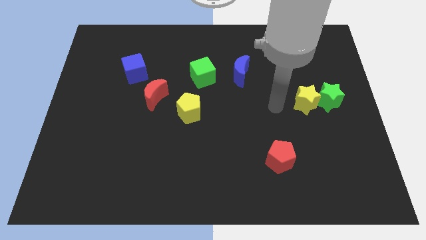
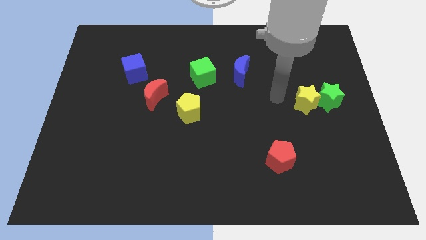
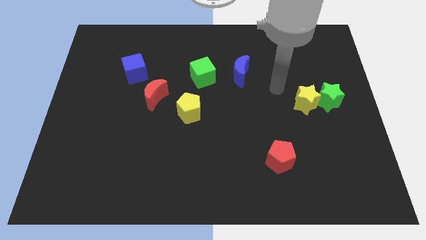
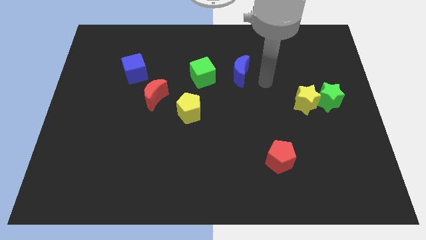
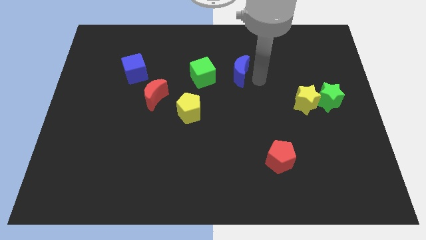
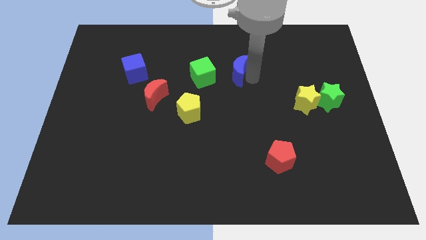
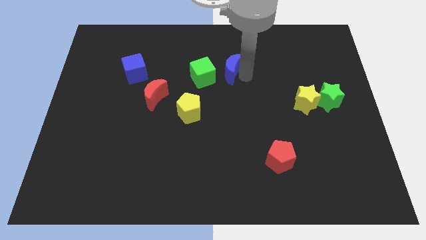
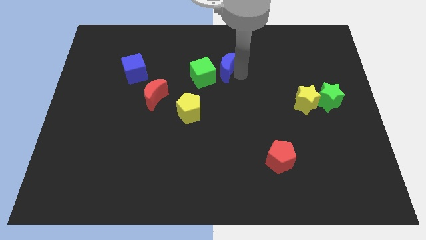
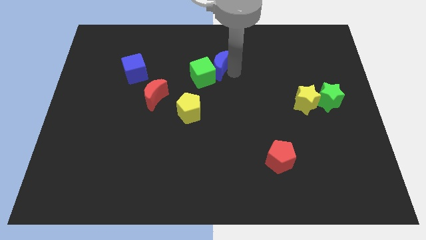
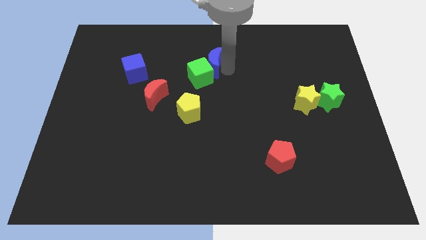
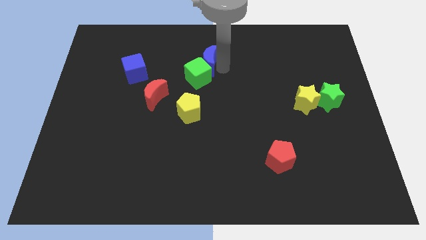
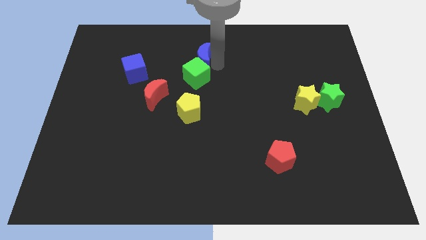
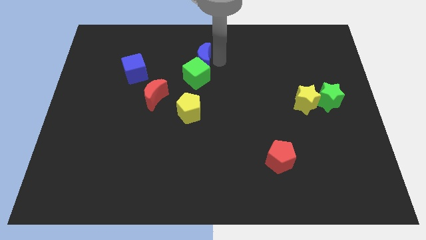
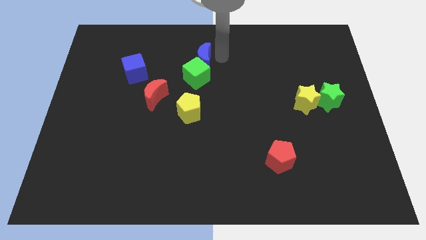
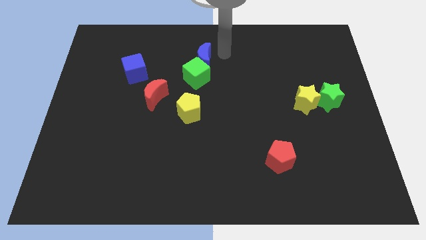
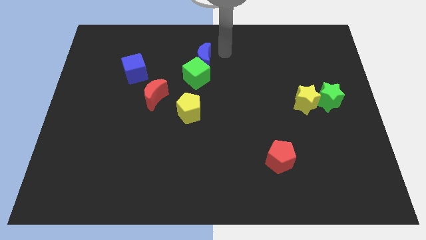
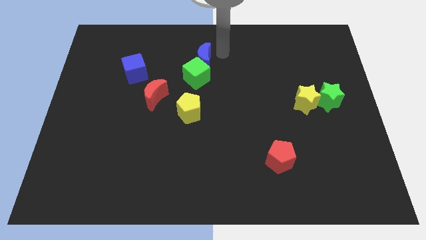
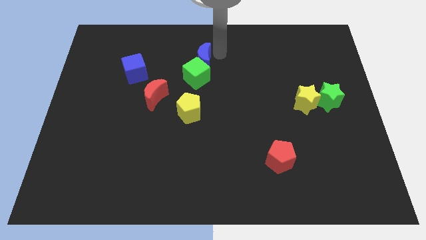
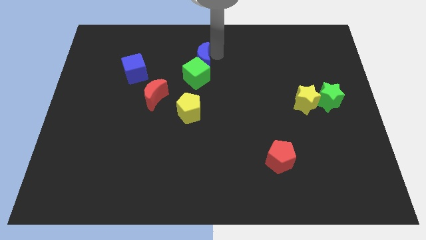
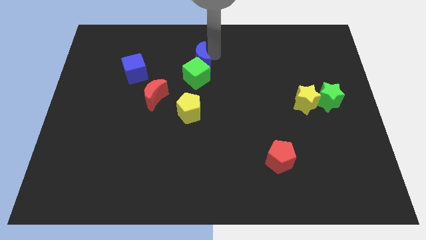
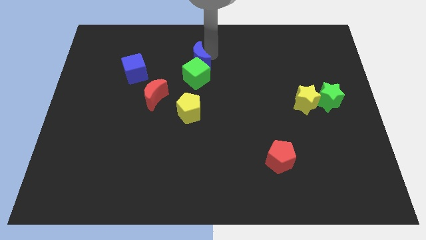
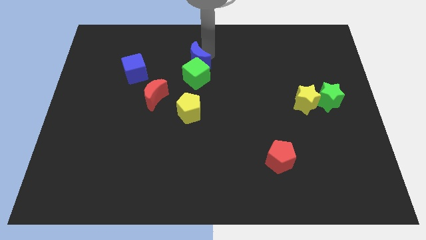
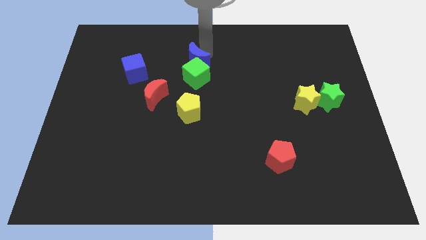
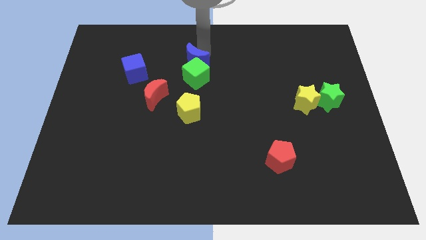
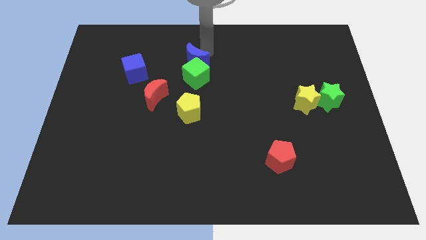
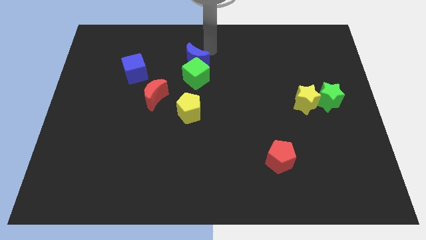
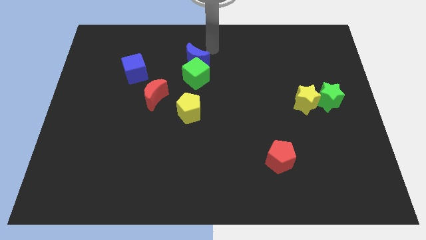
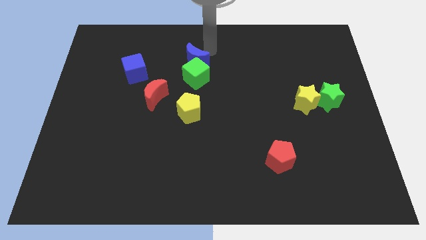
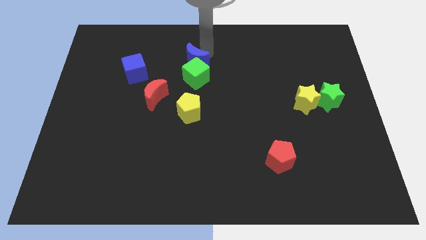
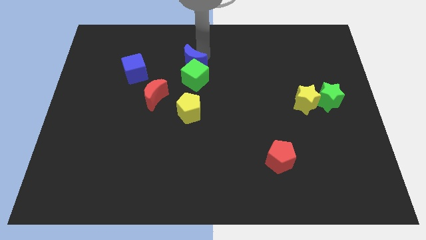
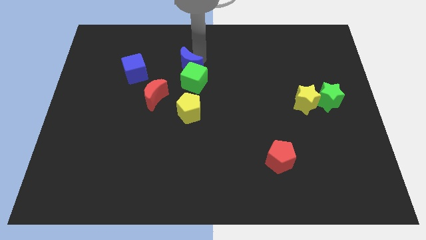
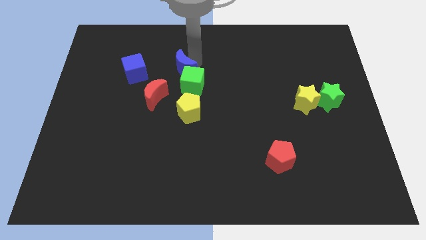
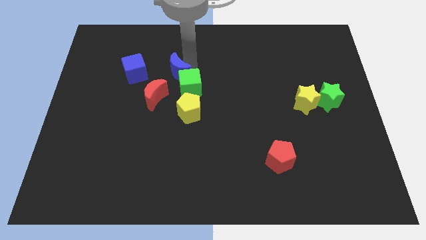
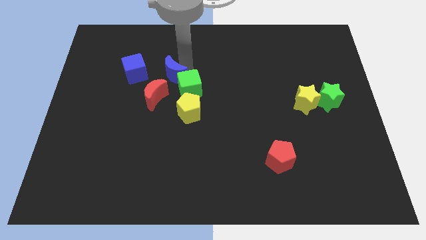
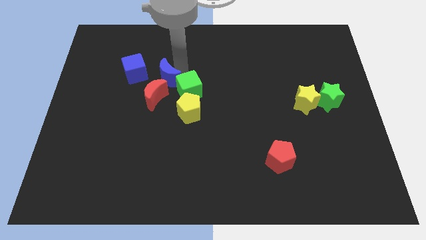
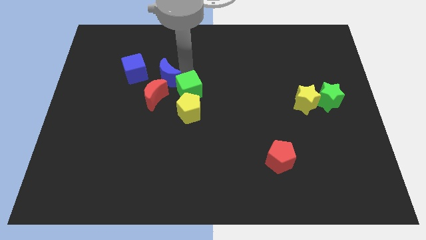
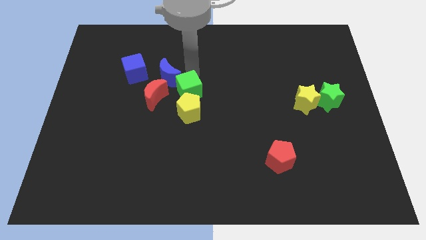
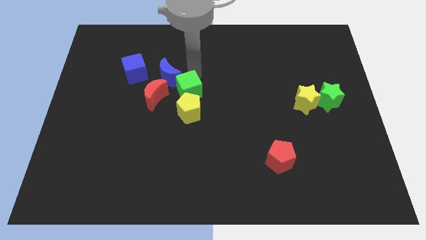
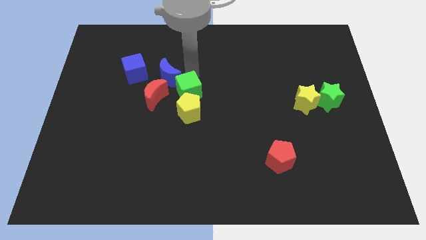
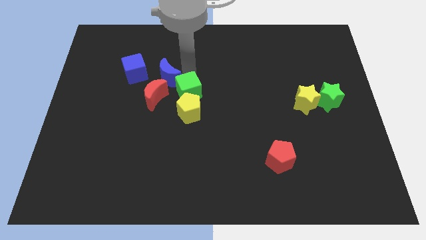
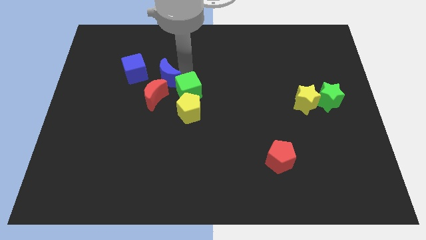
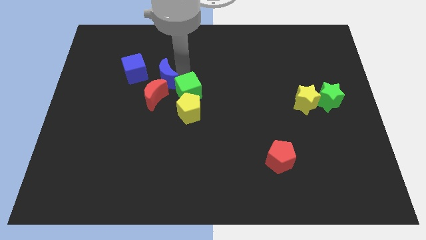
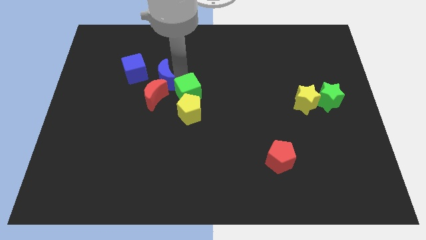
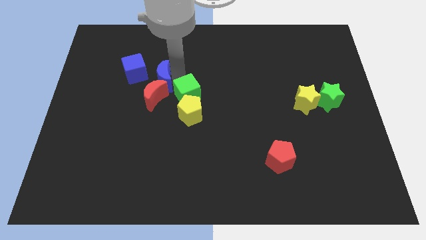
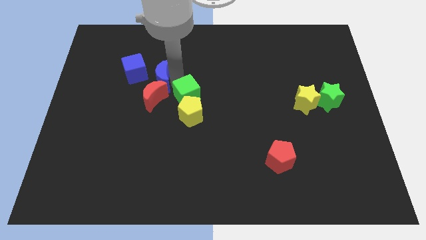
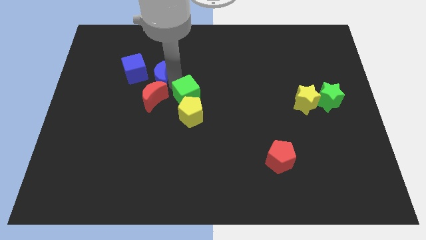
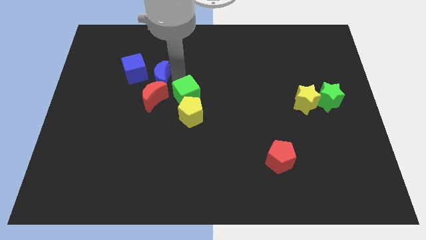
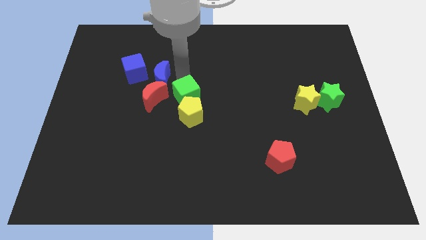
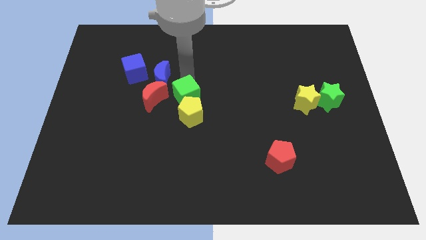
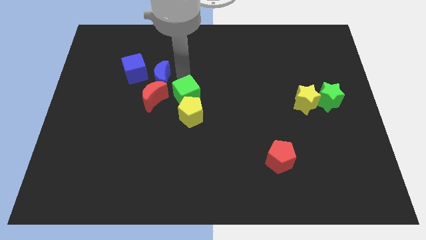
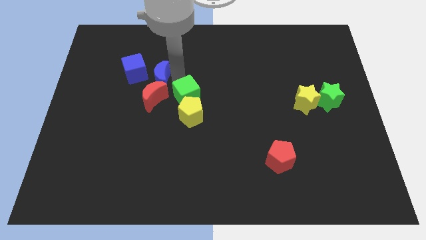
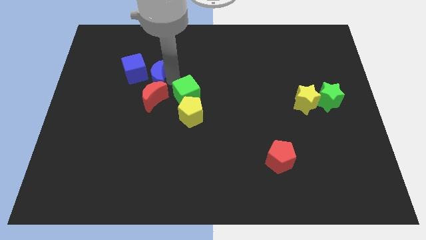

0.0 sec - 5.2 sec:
move the blue moon to the left

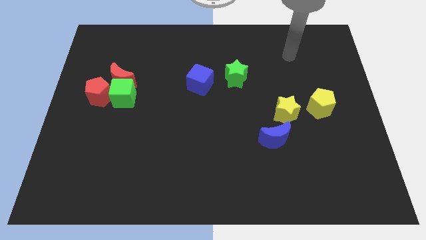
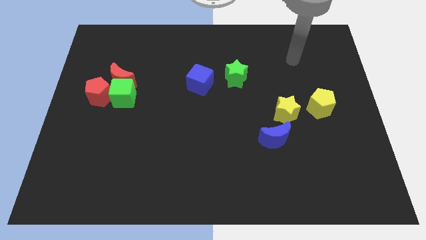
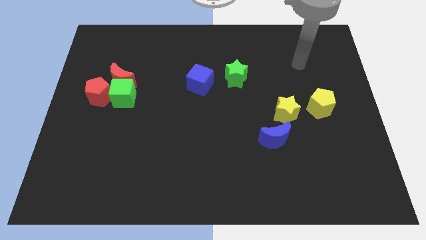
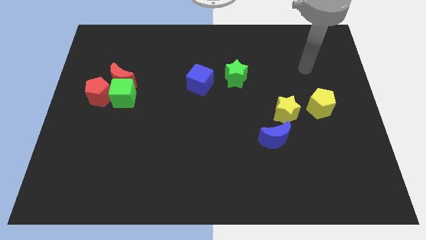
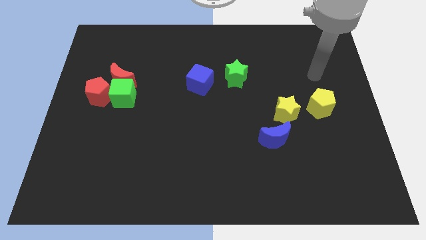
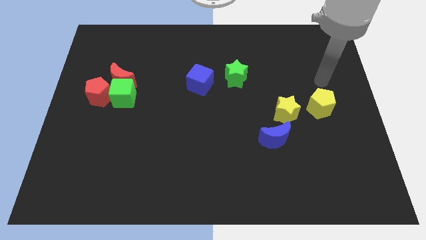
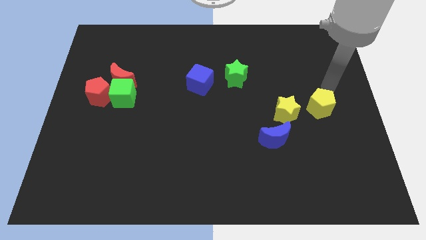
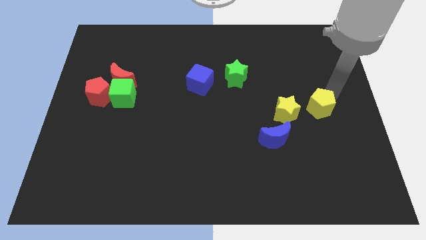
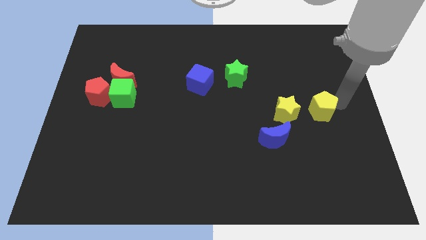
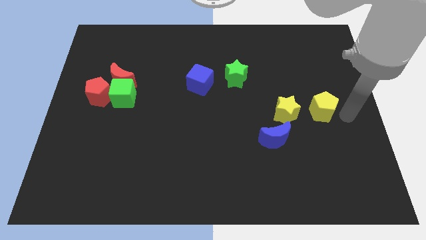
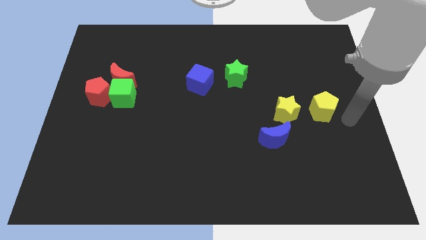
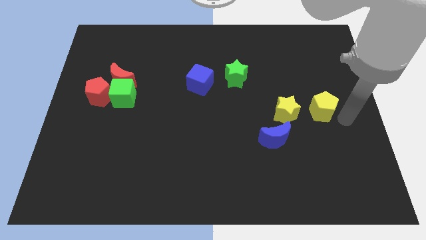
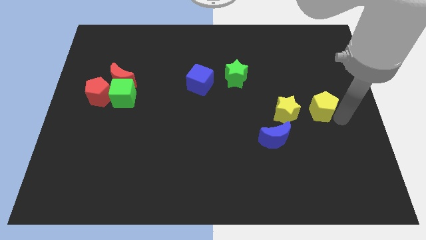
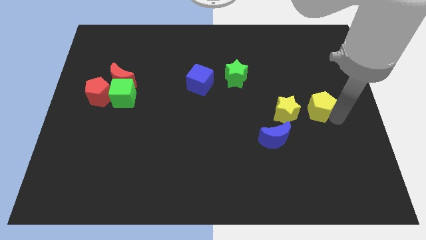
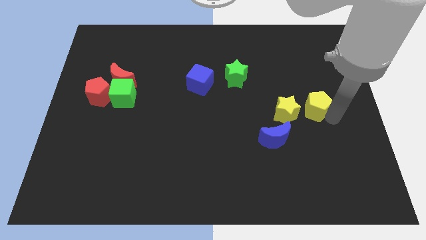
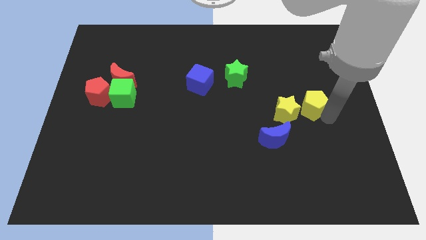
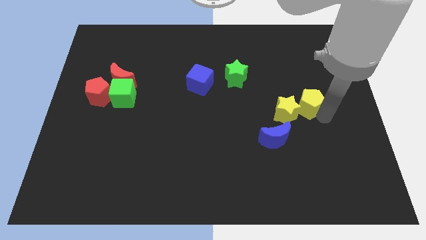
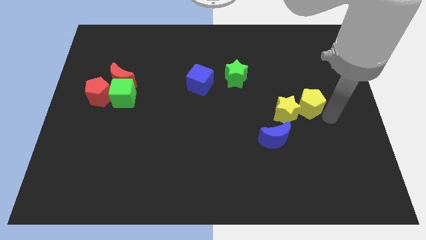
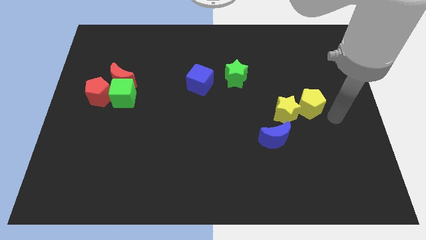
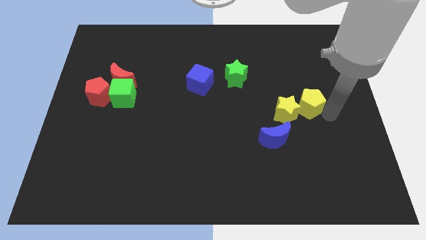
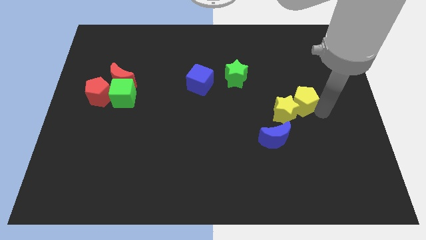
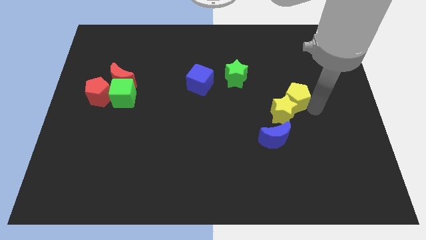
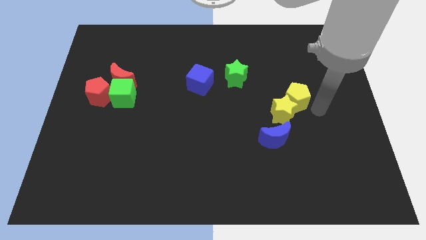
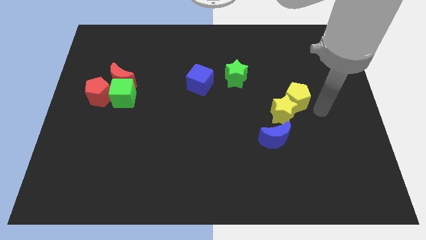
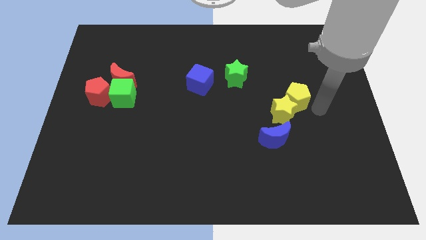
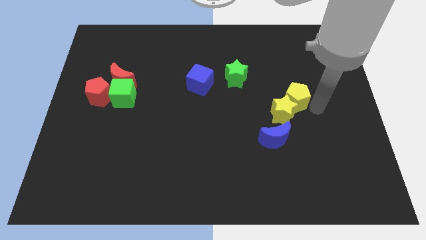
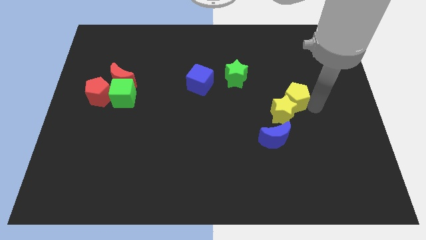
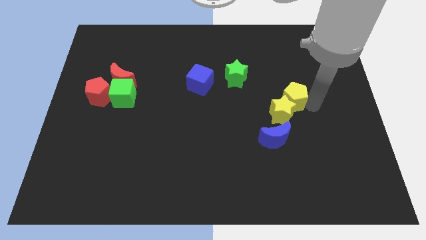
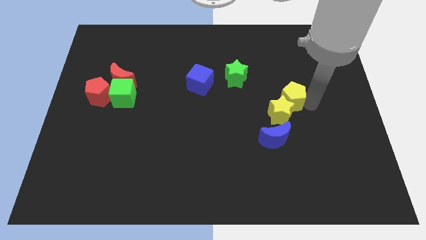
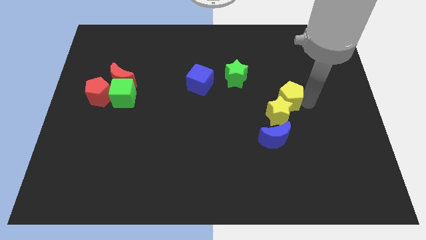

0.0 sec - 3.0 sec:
slightly slide the yellow pentagon left
